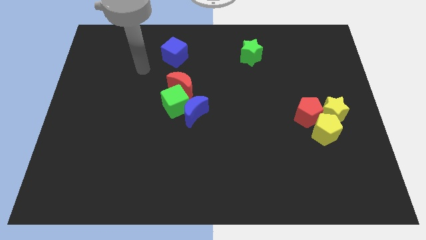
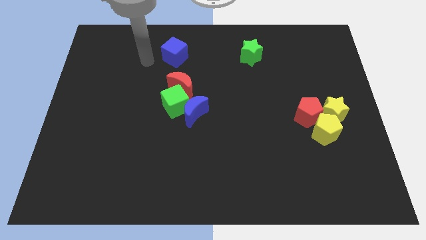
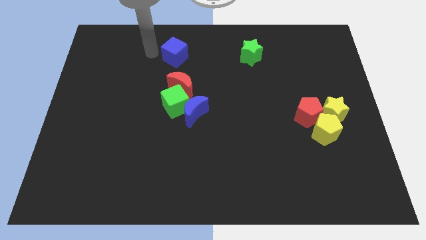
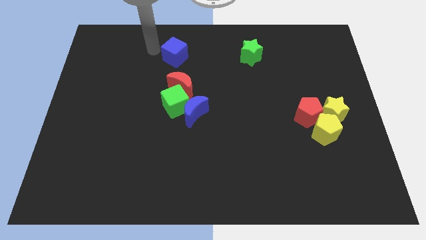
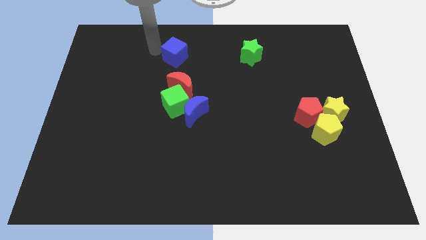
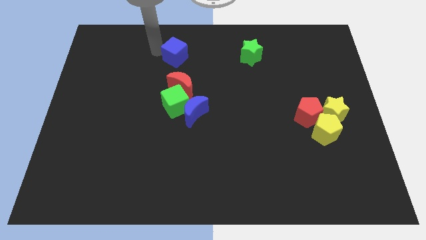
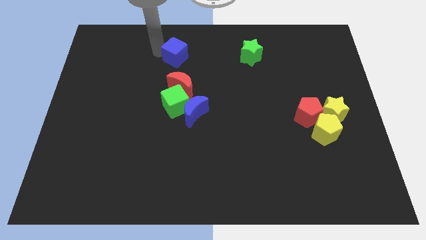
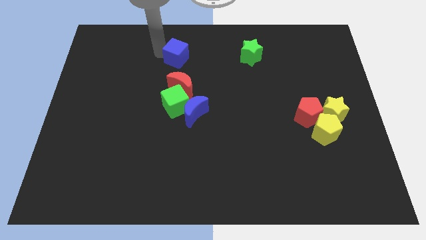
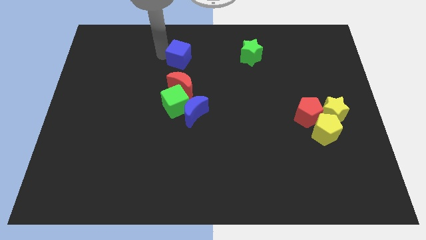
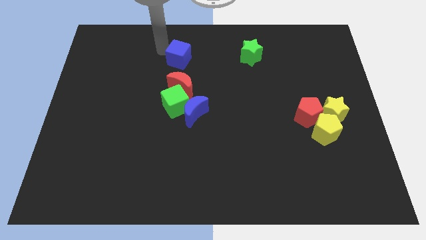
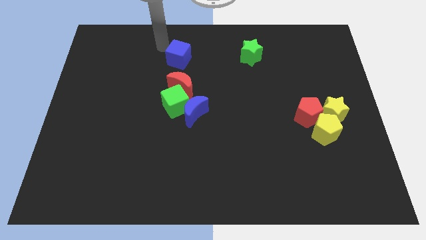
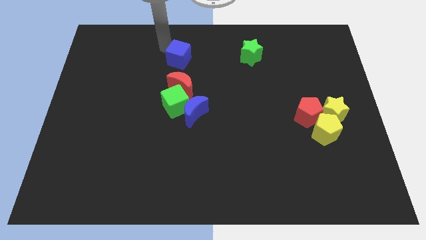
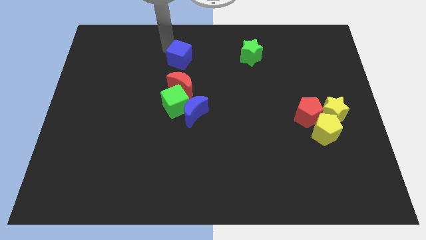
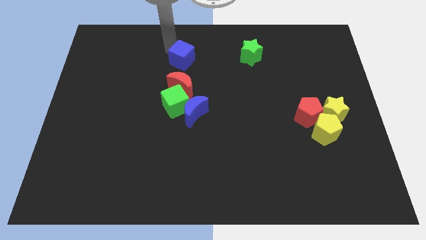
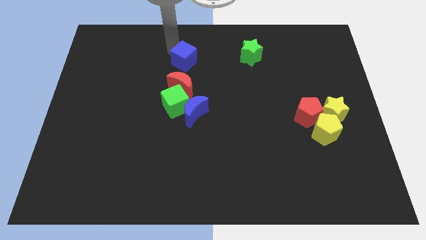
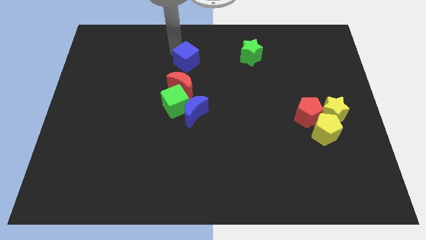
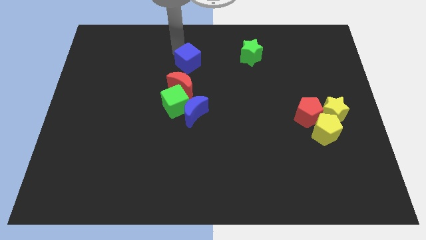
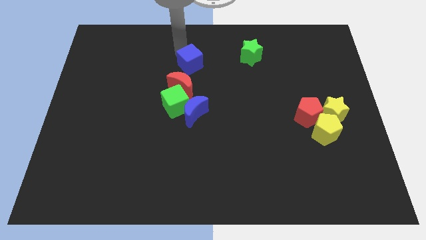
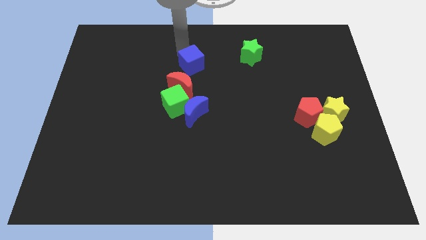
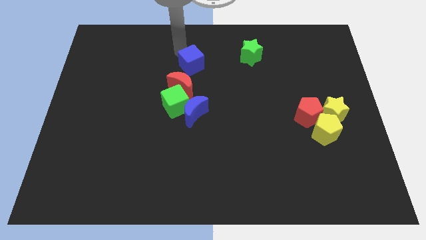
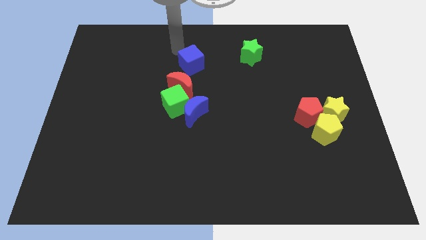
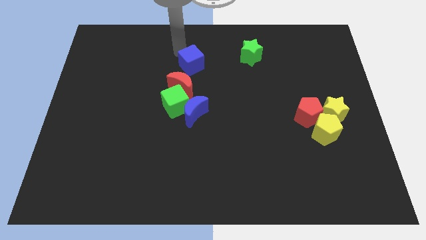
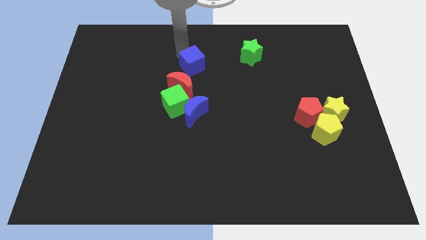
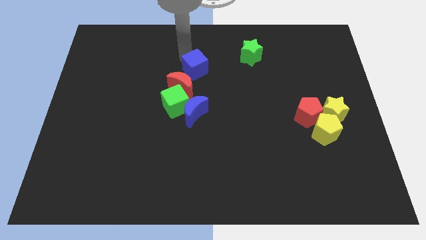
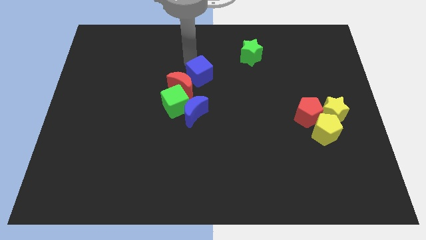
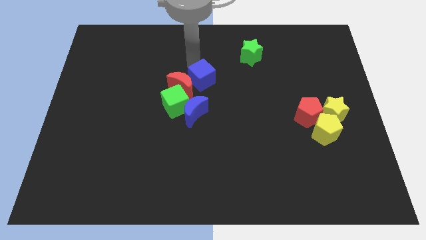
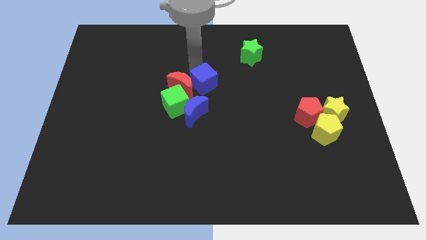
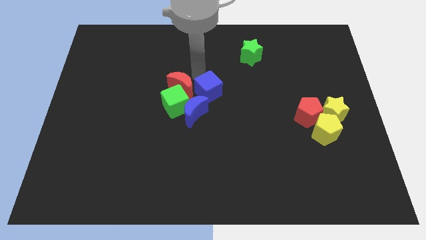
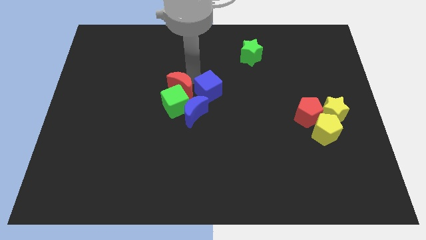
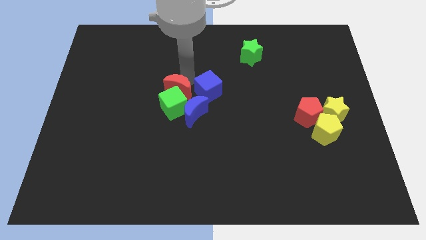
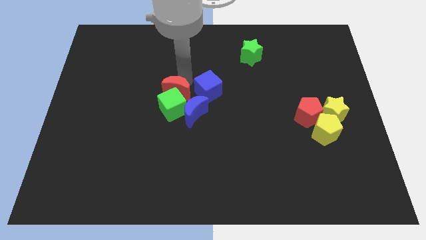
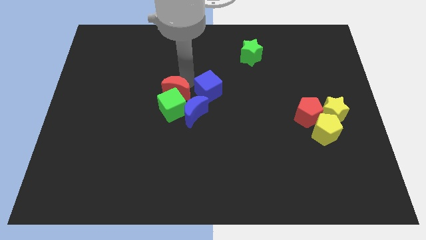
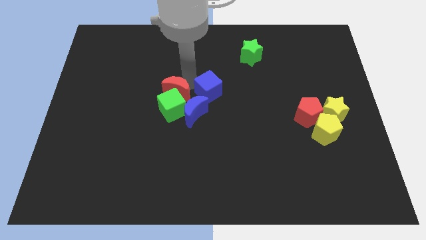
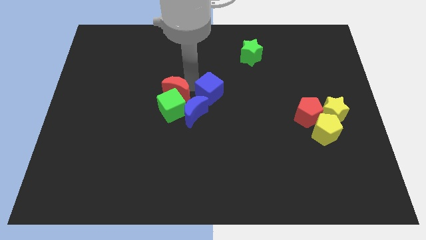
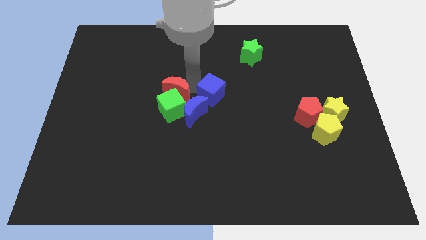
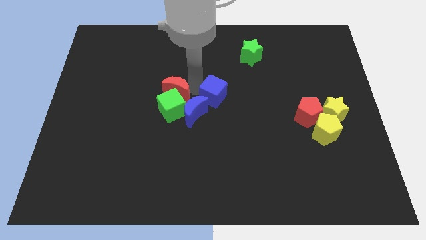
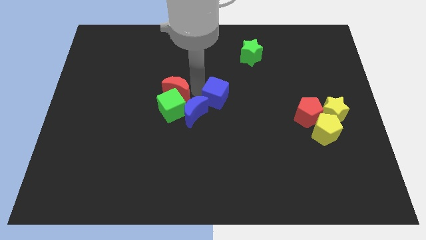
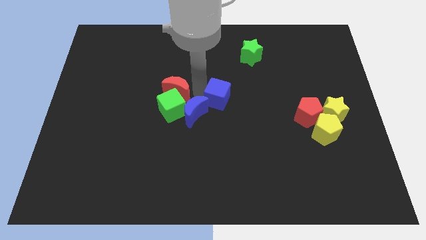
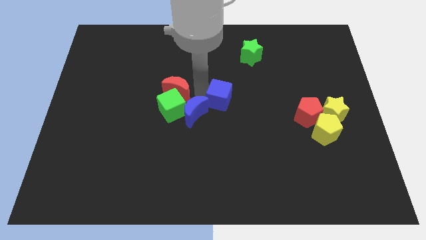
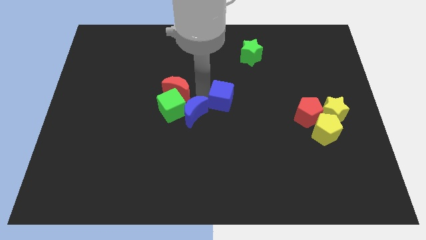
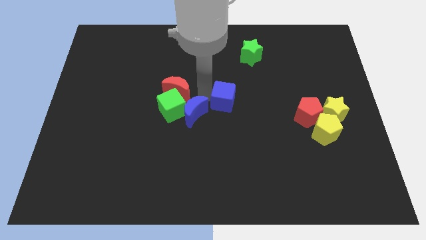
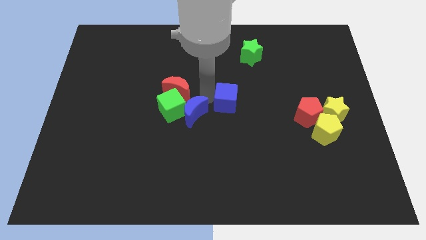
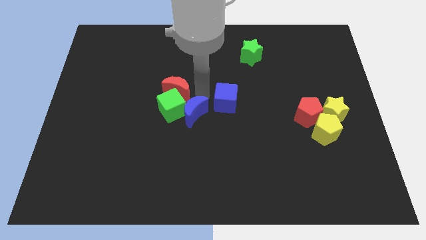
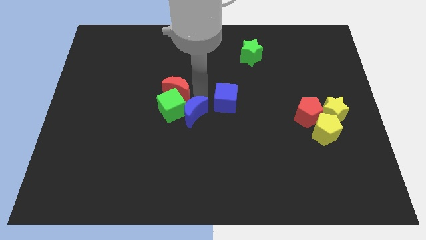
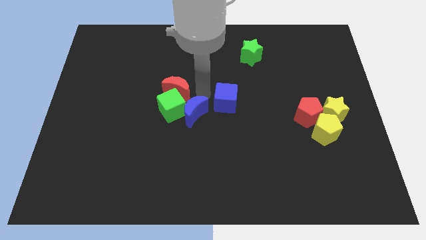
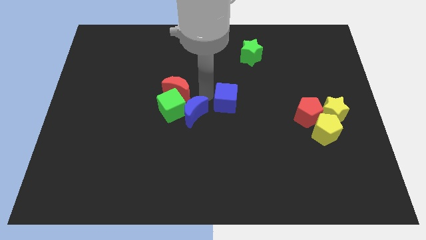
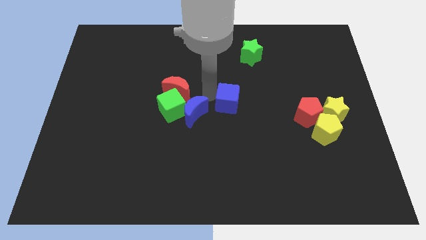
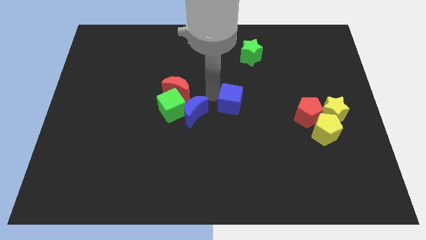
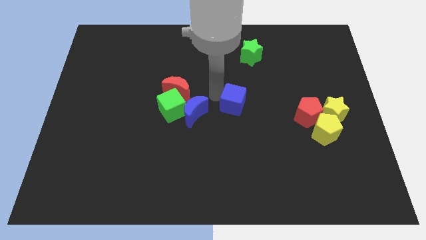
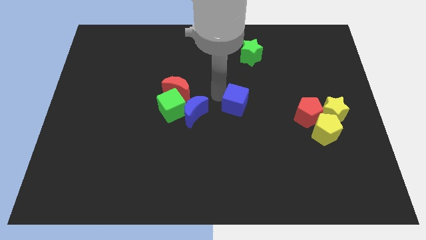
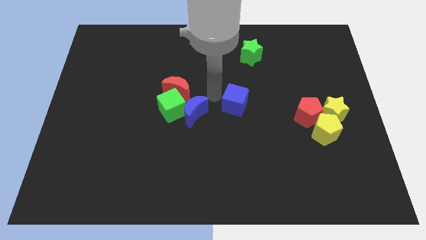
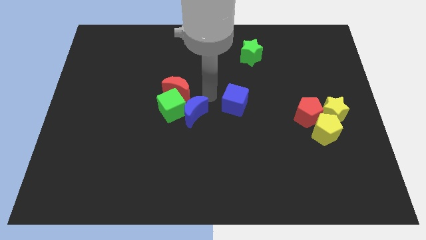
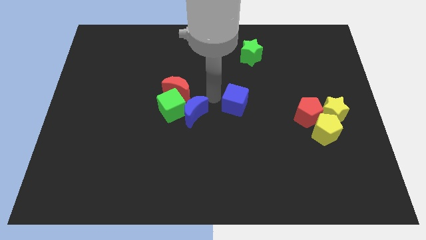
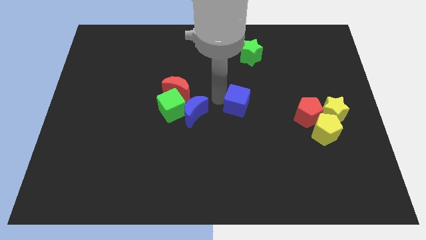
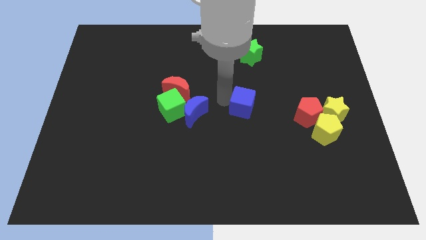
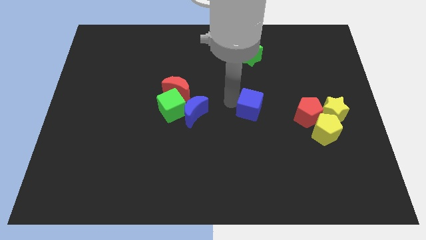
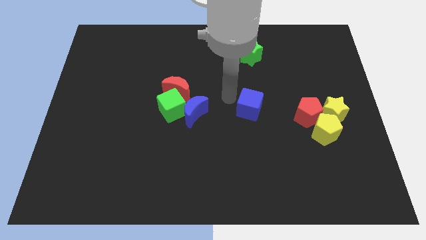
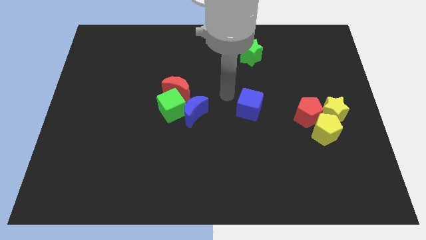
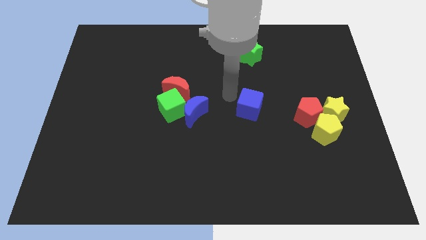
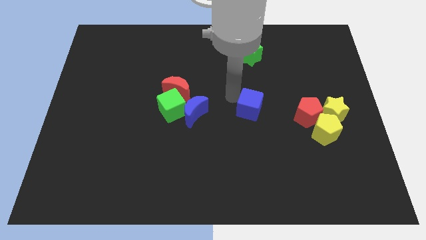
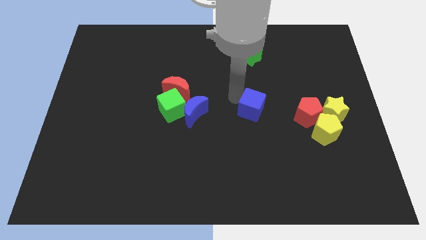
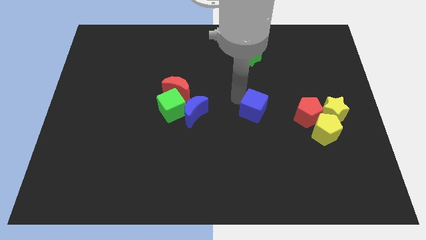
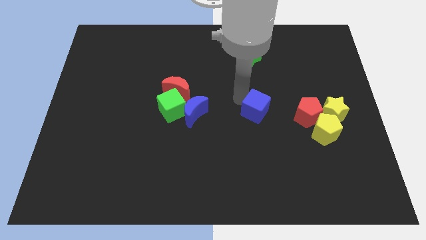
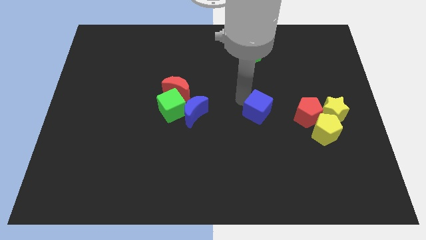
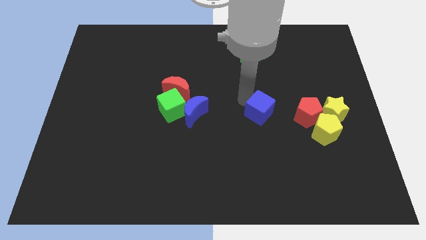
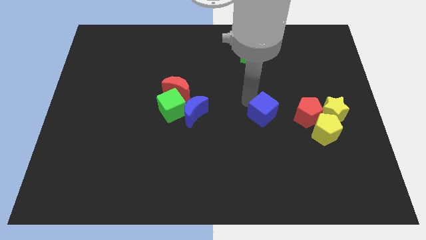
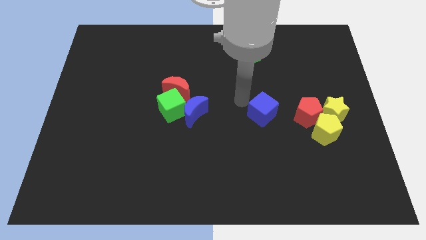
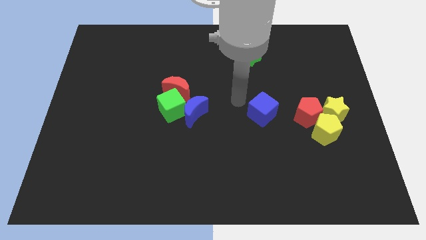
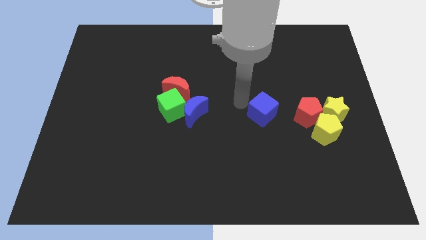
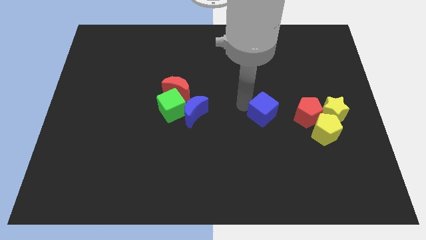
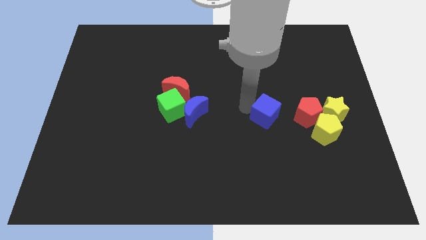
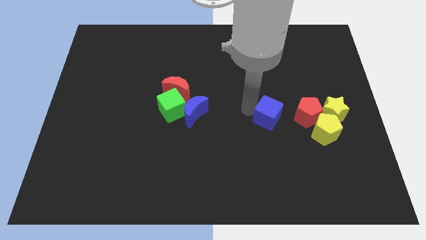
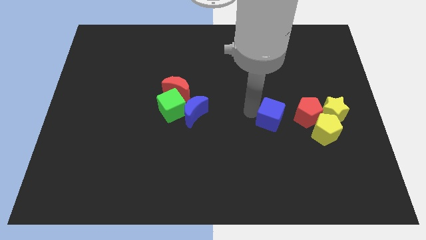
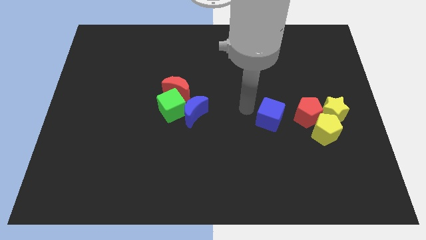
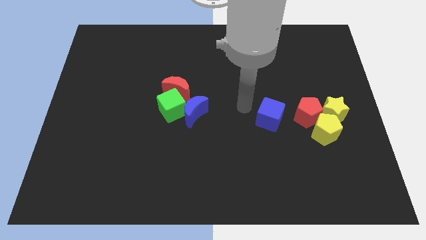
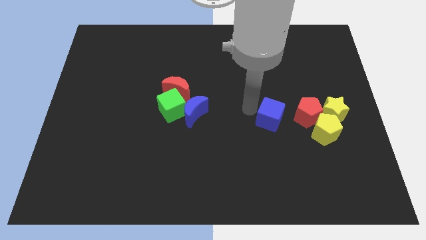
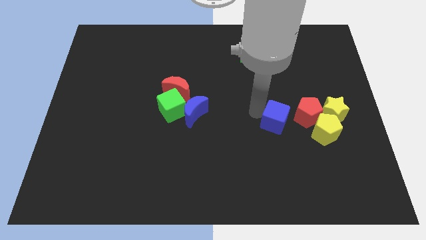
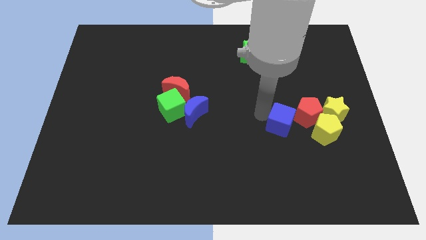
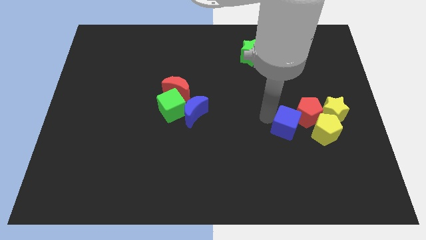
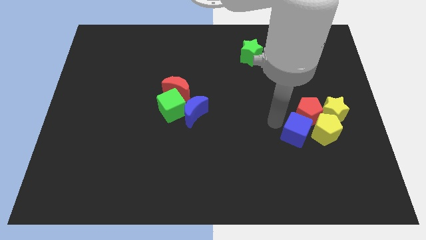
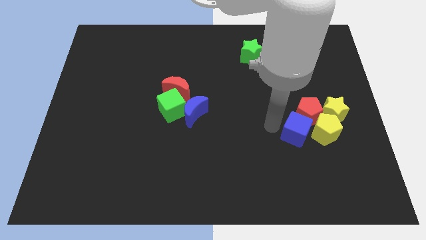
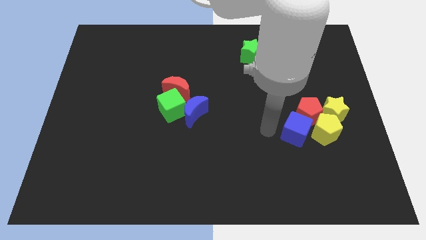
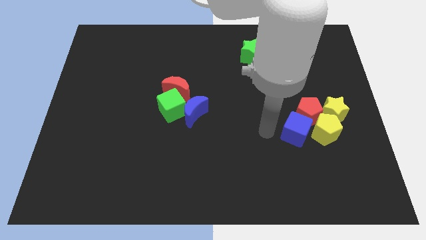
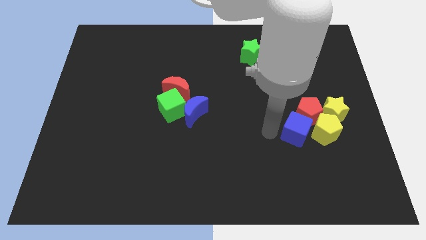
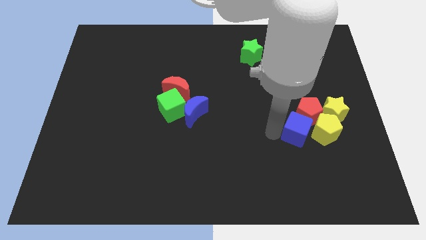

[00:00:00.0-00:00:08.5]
move the blue cube to the yellow pentagon
